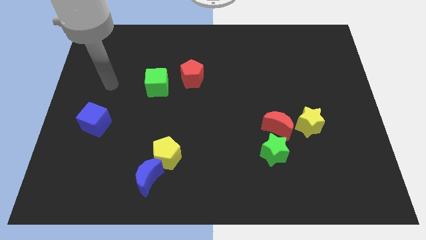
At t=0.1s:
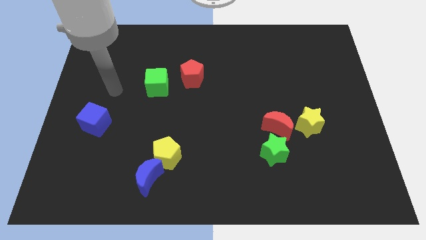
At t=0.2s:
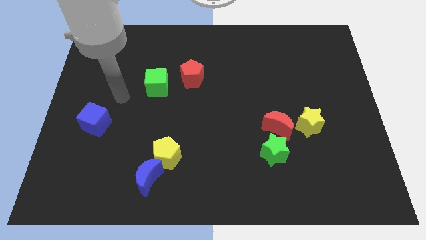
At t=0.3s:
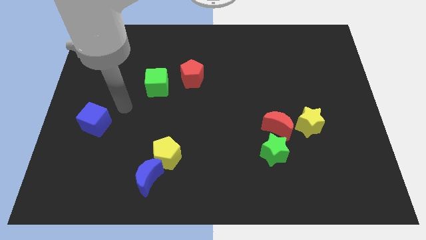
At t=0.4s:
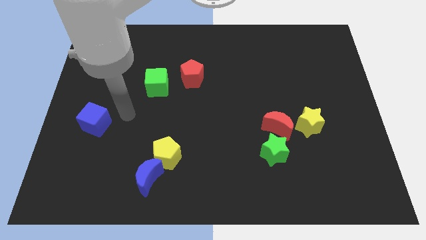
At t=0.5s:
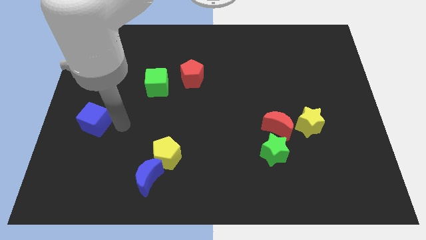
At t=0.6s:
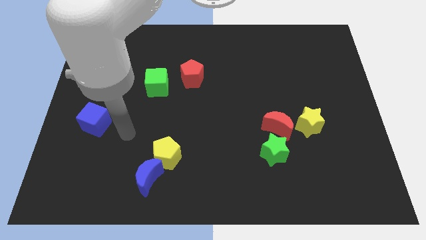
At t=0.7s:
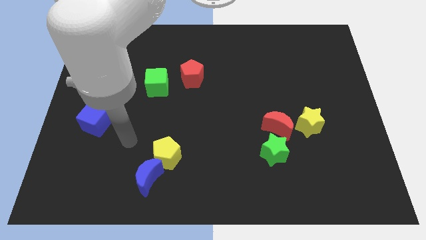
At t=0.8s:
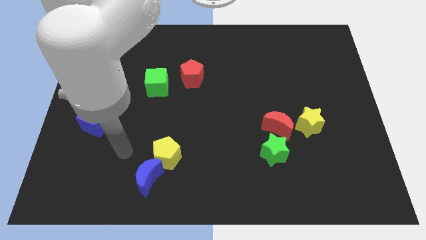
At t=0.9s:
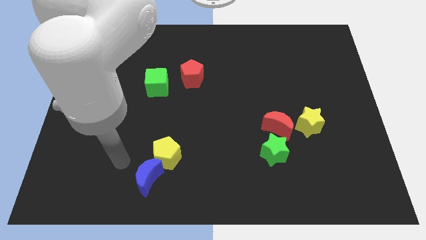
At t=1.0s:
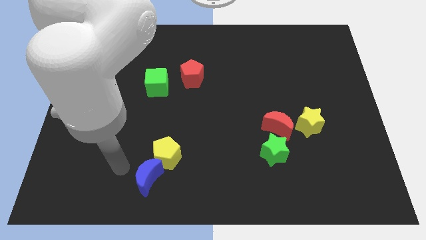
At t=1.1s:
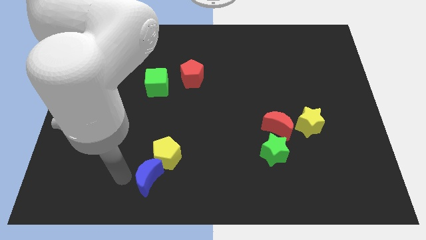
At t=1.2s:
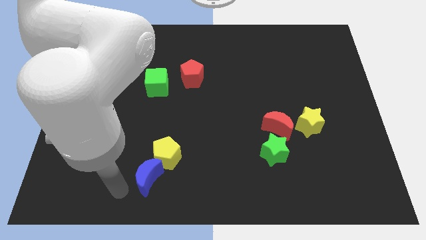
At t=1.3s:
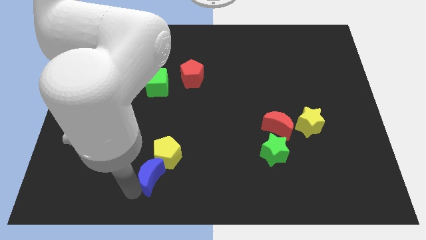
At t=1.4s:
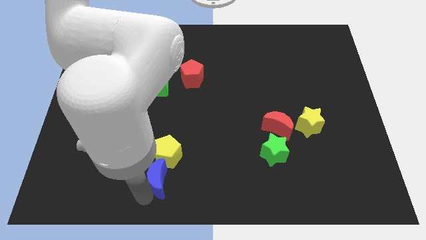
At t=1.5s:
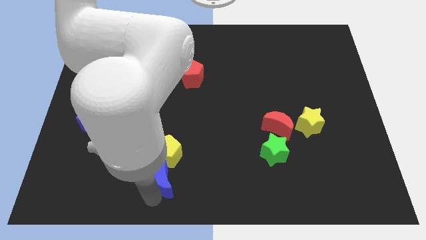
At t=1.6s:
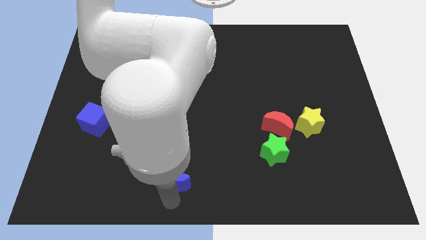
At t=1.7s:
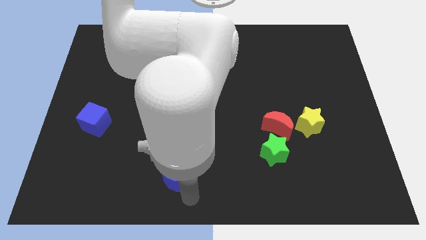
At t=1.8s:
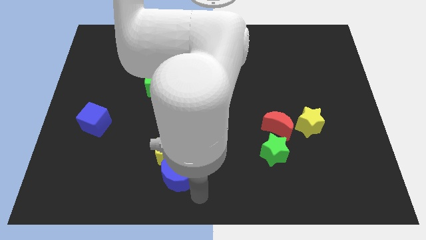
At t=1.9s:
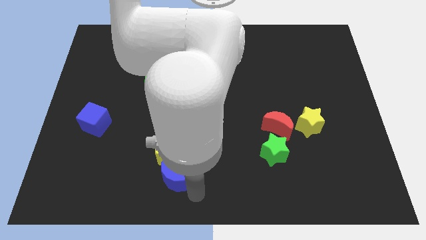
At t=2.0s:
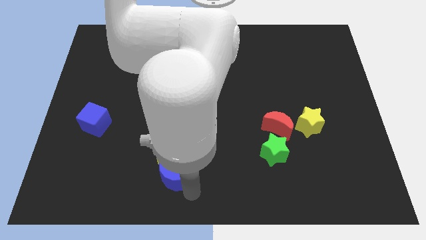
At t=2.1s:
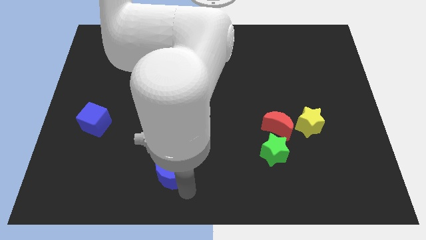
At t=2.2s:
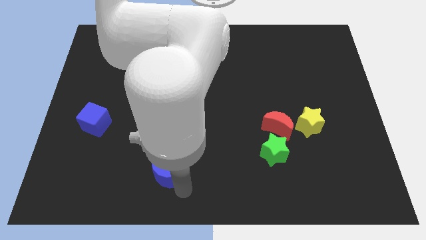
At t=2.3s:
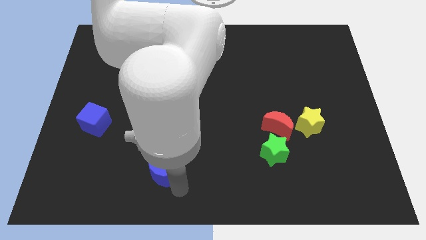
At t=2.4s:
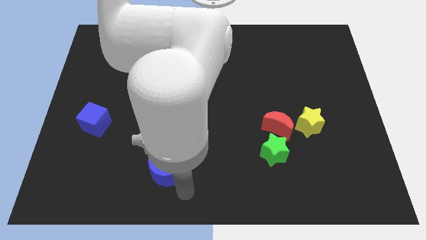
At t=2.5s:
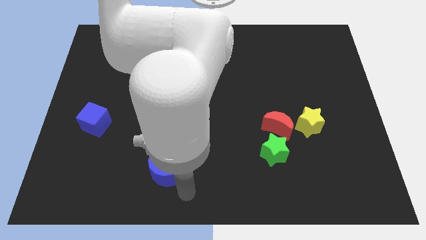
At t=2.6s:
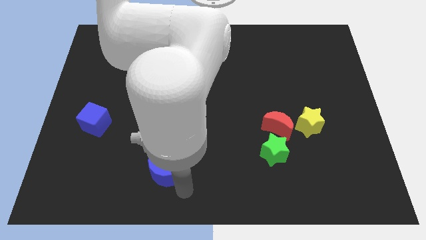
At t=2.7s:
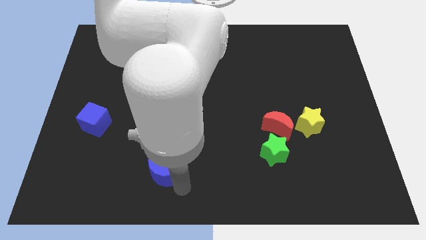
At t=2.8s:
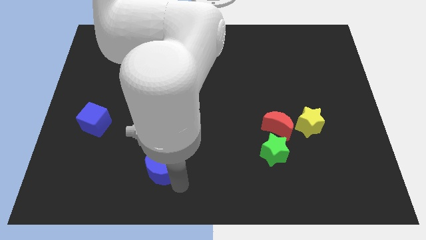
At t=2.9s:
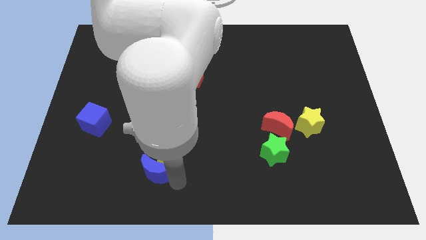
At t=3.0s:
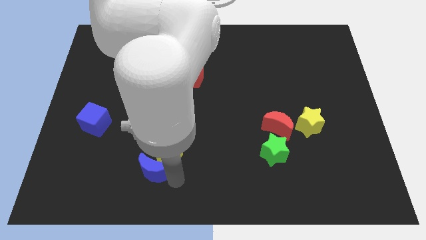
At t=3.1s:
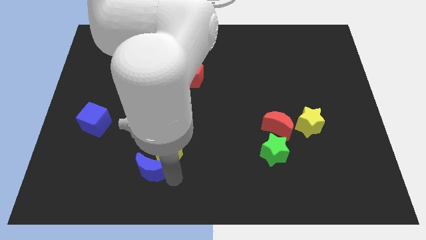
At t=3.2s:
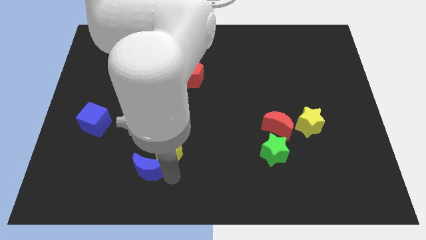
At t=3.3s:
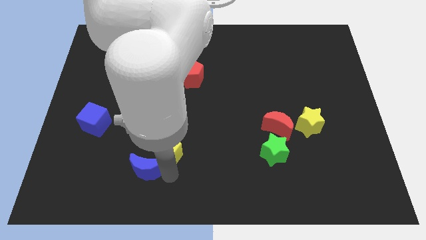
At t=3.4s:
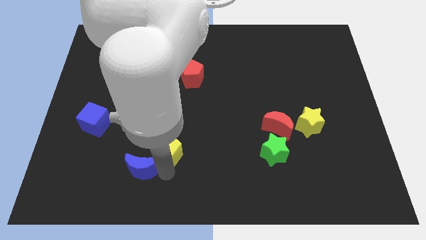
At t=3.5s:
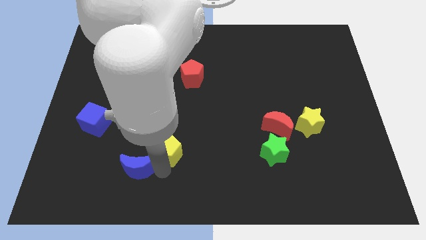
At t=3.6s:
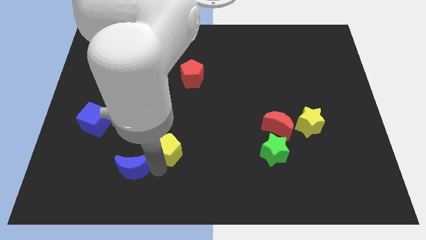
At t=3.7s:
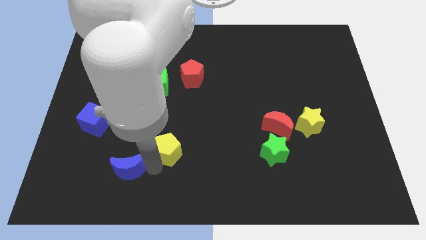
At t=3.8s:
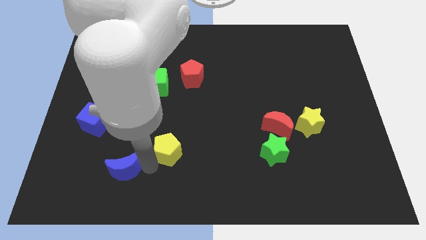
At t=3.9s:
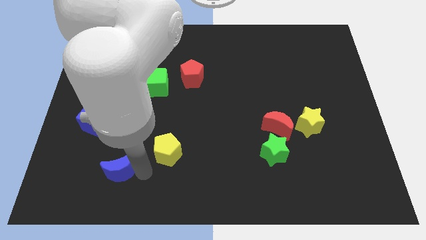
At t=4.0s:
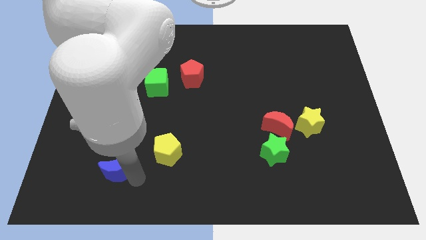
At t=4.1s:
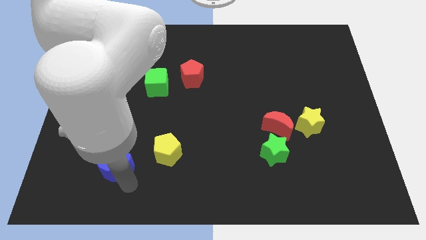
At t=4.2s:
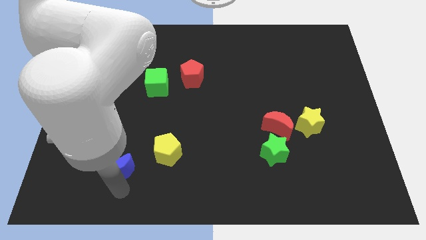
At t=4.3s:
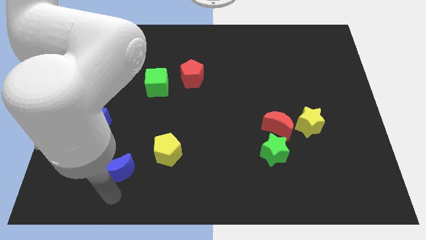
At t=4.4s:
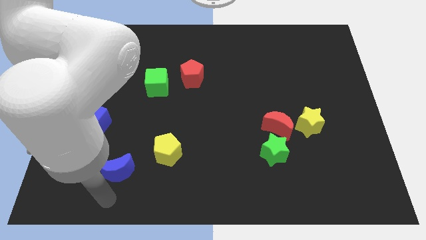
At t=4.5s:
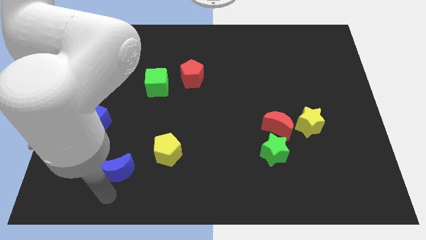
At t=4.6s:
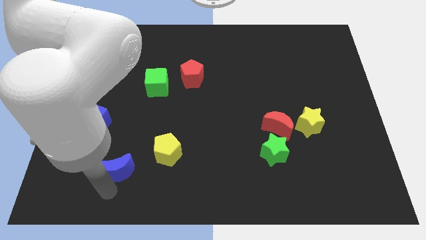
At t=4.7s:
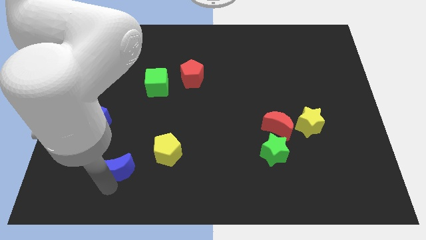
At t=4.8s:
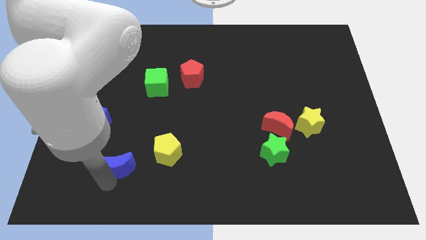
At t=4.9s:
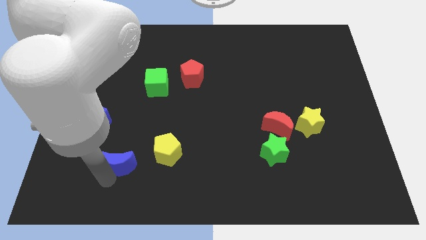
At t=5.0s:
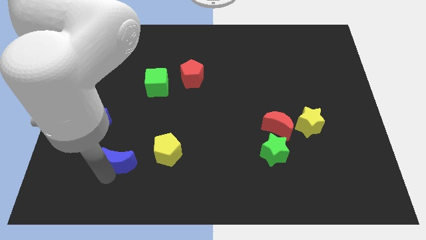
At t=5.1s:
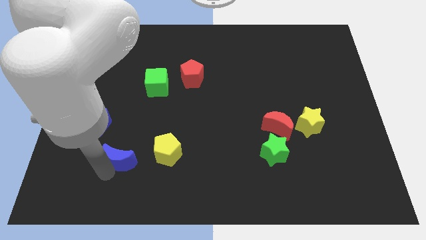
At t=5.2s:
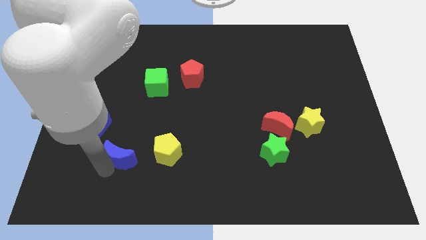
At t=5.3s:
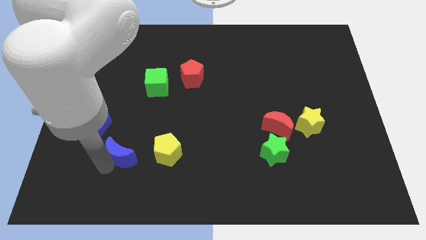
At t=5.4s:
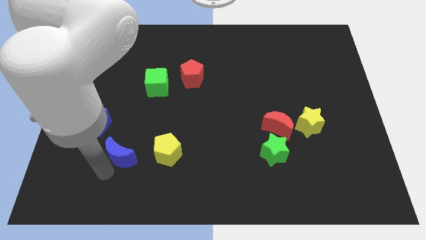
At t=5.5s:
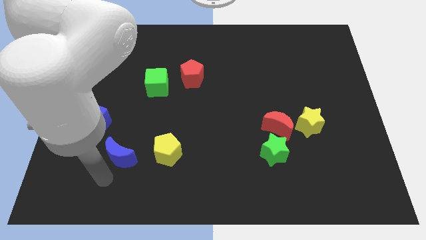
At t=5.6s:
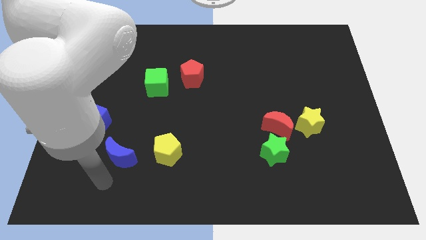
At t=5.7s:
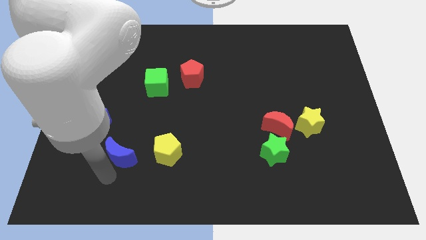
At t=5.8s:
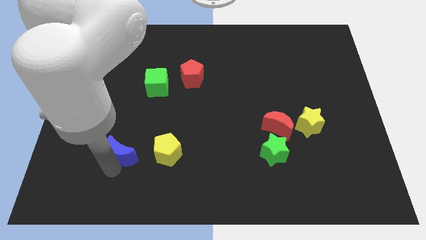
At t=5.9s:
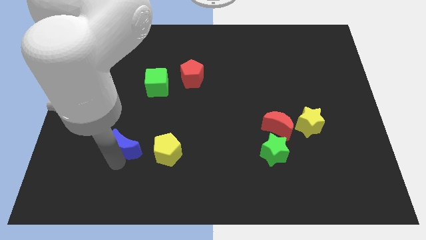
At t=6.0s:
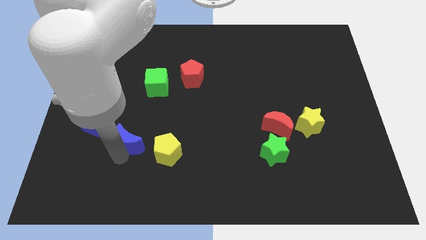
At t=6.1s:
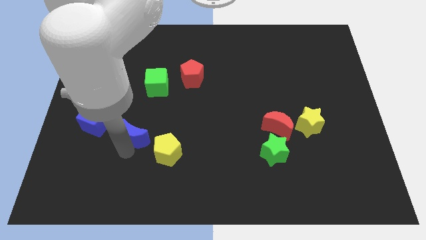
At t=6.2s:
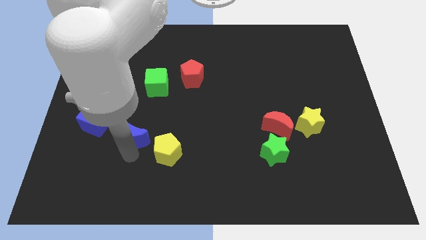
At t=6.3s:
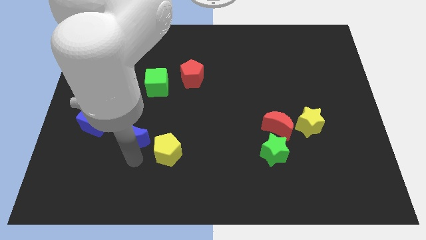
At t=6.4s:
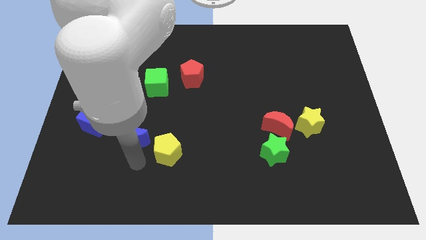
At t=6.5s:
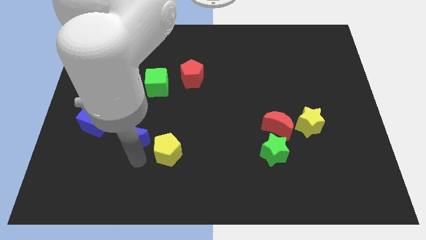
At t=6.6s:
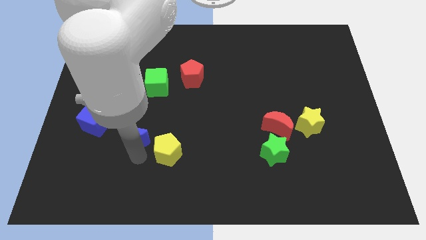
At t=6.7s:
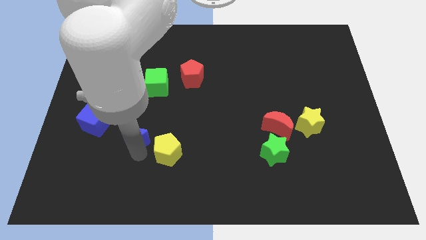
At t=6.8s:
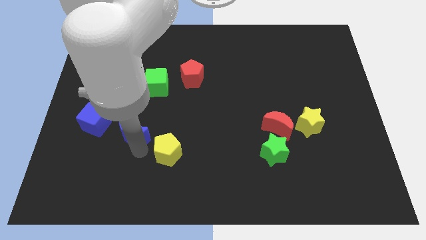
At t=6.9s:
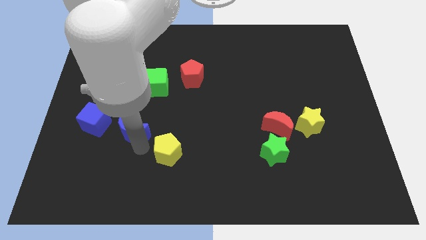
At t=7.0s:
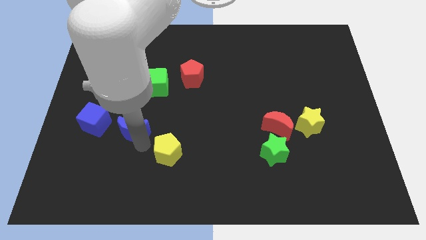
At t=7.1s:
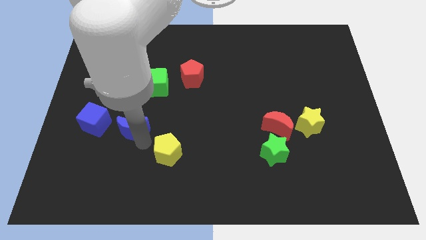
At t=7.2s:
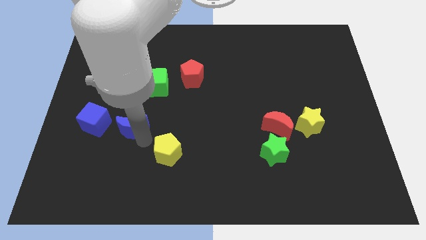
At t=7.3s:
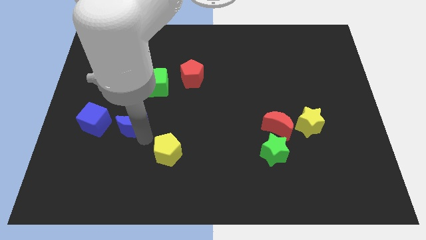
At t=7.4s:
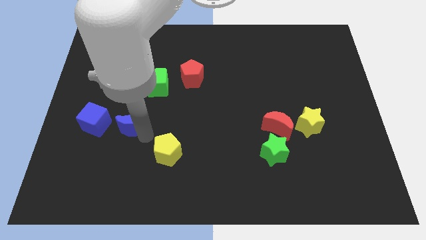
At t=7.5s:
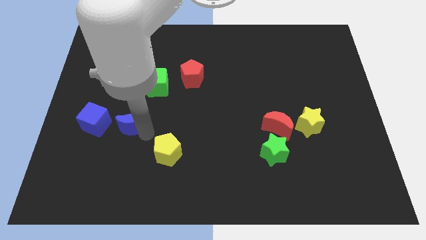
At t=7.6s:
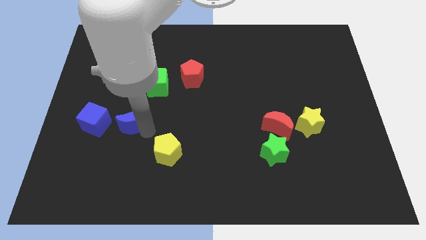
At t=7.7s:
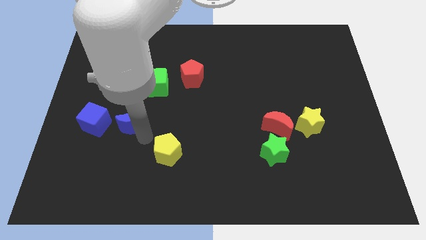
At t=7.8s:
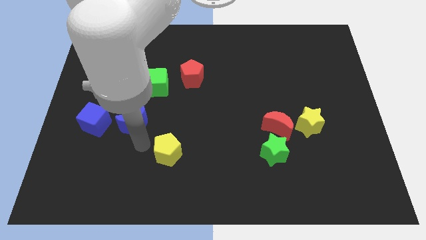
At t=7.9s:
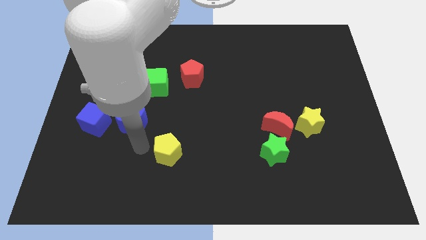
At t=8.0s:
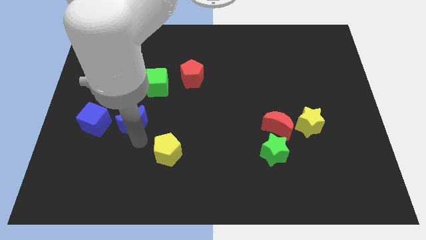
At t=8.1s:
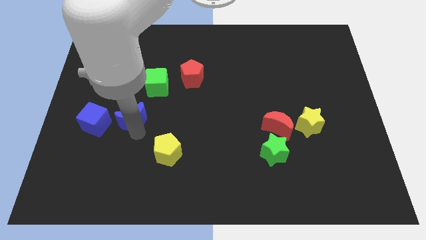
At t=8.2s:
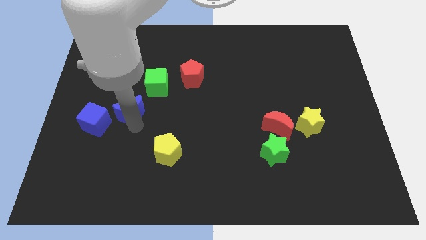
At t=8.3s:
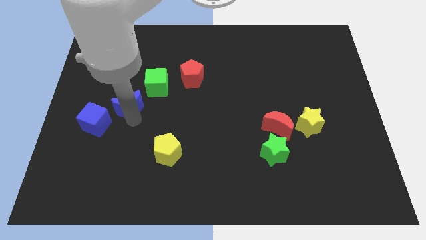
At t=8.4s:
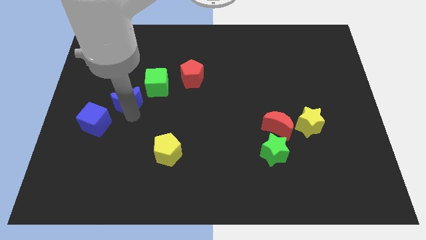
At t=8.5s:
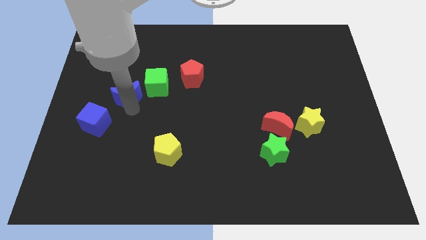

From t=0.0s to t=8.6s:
put the blue moon left of the green cube
